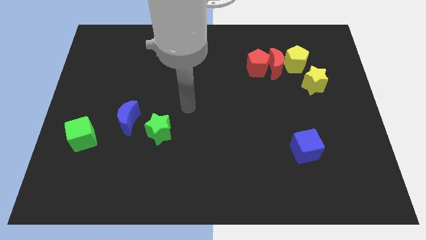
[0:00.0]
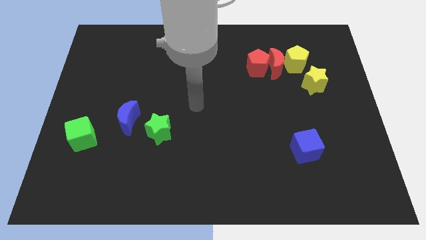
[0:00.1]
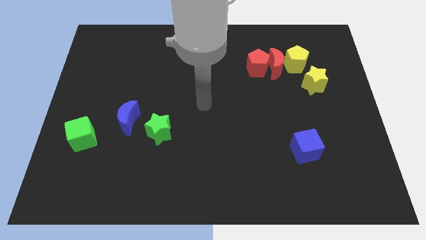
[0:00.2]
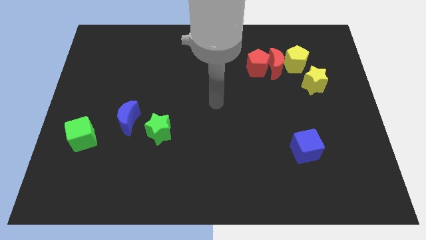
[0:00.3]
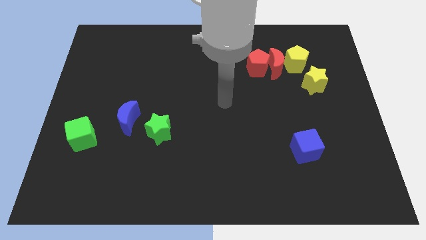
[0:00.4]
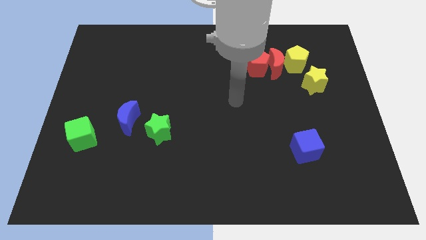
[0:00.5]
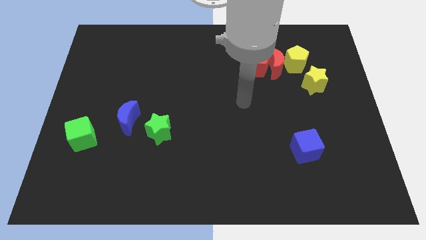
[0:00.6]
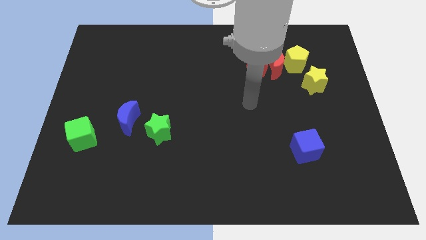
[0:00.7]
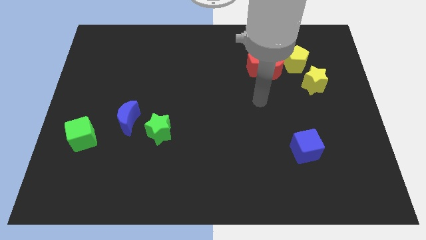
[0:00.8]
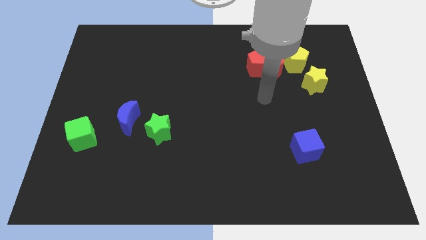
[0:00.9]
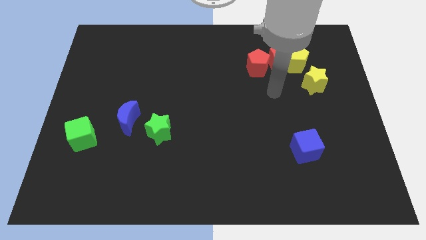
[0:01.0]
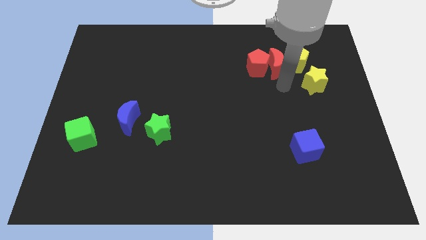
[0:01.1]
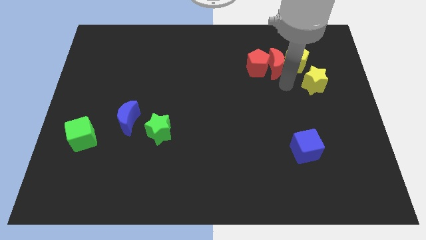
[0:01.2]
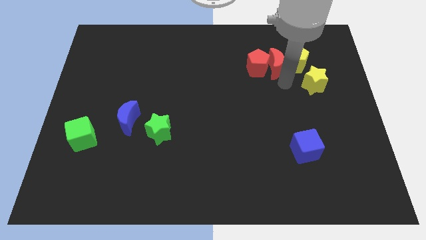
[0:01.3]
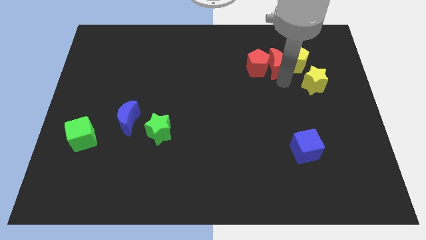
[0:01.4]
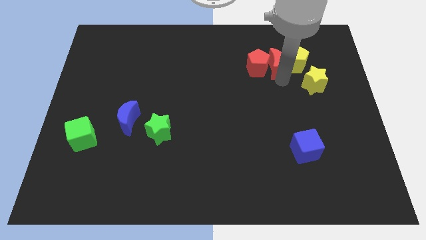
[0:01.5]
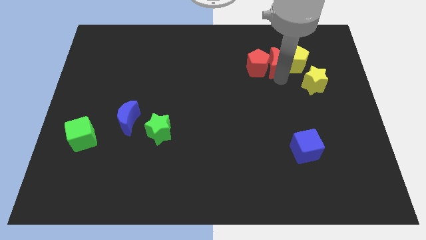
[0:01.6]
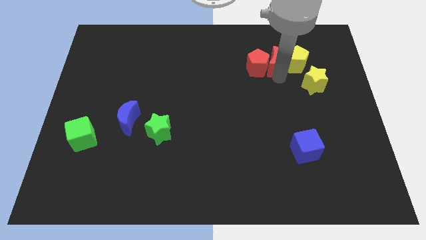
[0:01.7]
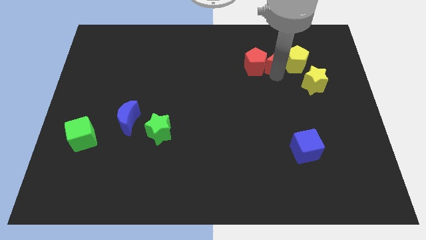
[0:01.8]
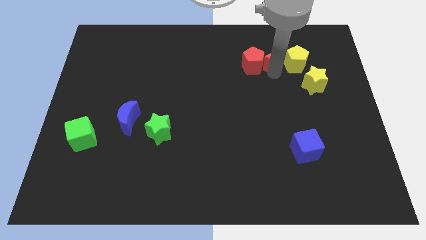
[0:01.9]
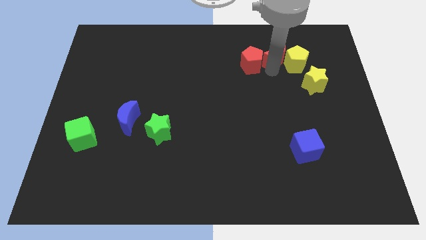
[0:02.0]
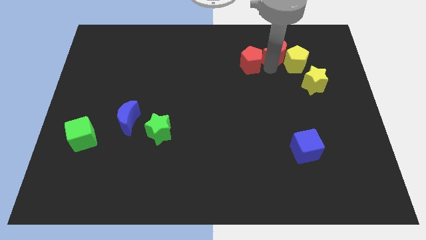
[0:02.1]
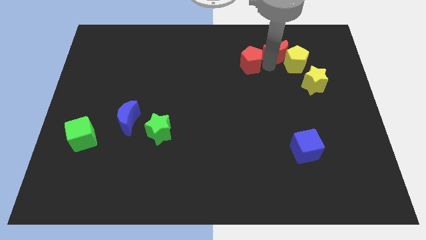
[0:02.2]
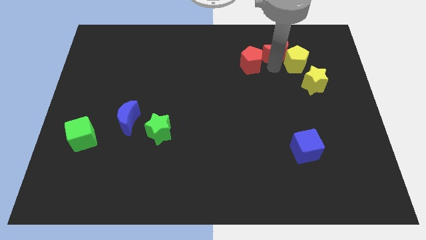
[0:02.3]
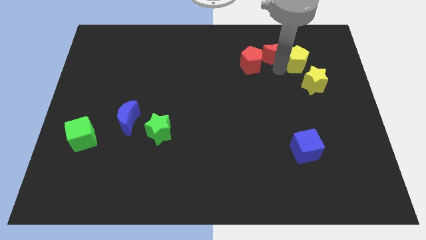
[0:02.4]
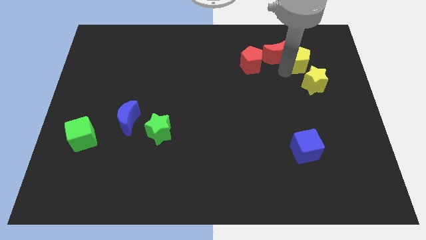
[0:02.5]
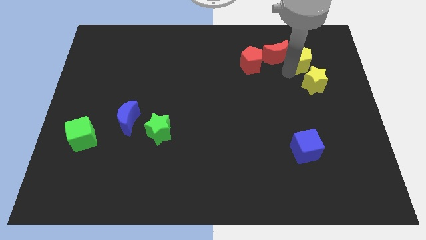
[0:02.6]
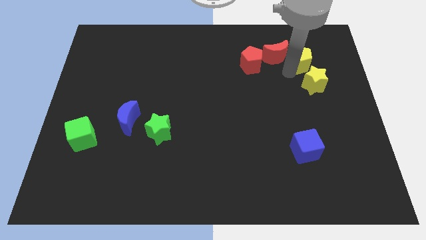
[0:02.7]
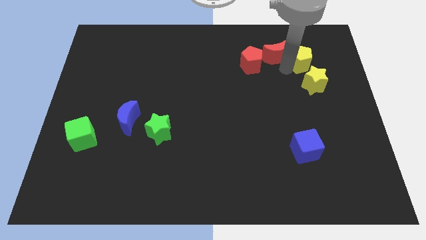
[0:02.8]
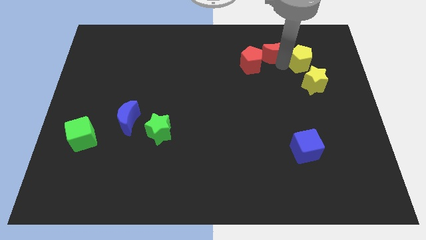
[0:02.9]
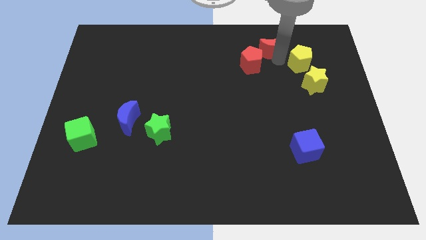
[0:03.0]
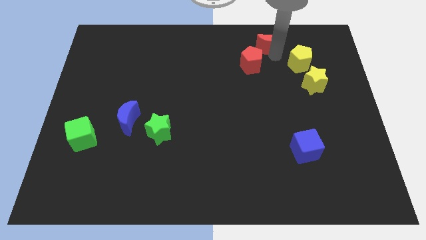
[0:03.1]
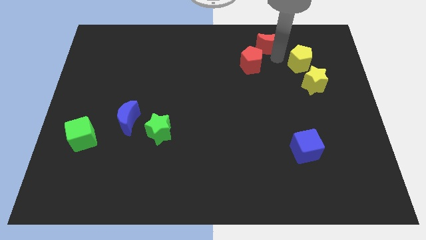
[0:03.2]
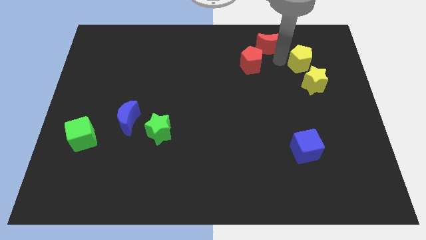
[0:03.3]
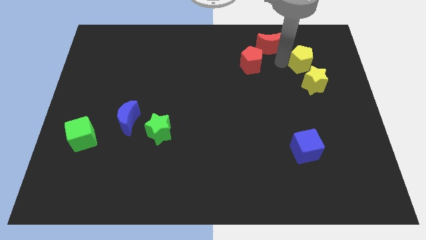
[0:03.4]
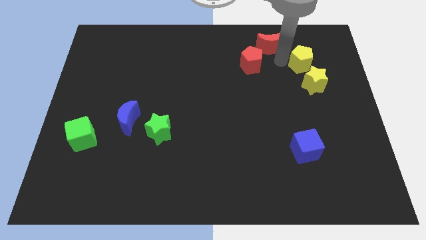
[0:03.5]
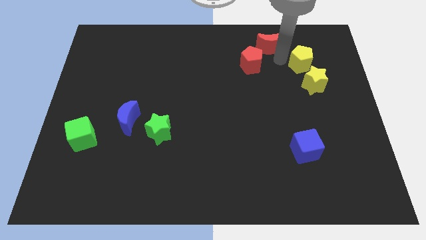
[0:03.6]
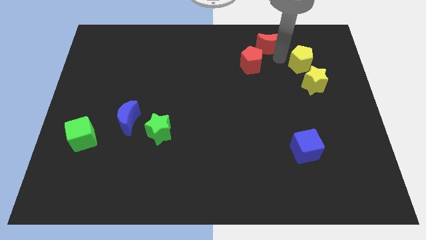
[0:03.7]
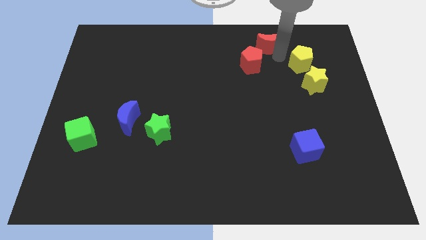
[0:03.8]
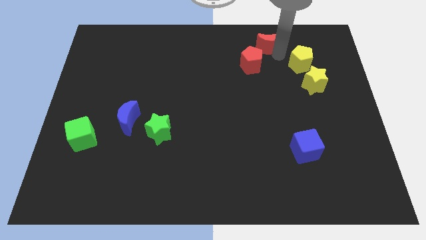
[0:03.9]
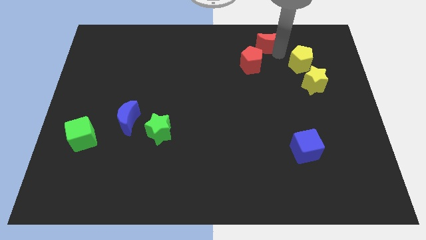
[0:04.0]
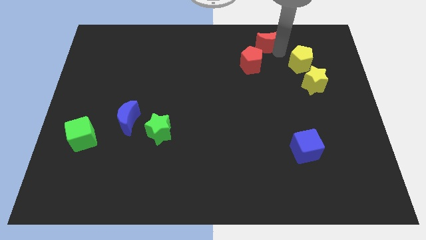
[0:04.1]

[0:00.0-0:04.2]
separate the red moon from the red pentagon, yellow pentagon, and yellow star

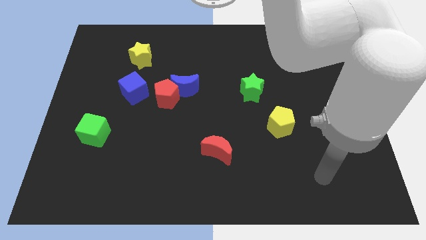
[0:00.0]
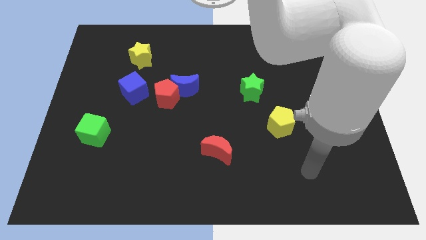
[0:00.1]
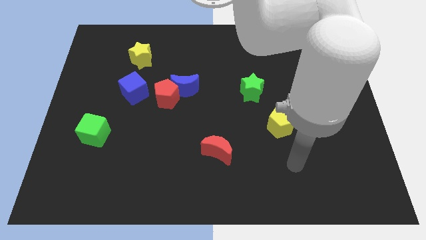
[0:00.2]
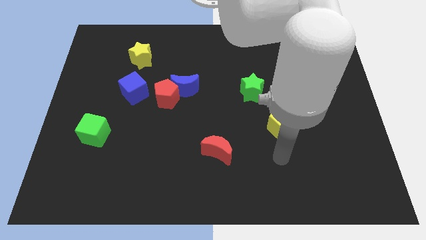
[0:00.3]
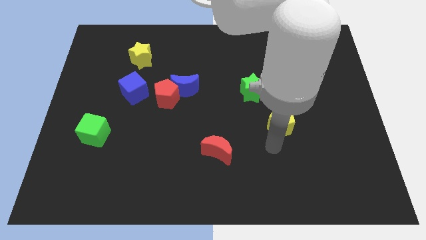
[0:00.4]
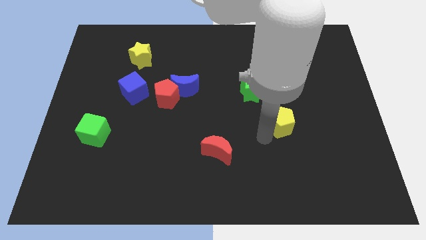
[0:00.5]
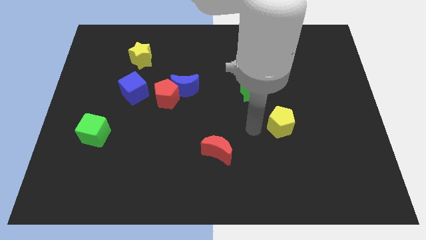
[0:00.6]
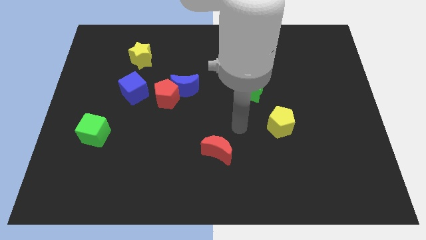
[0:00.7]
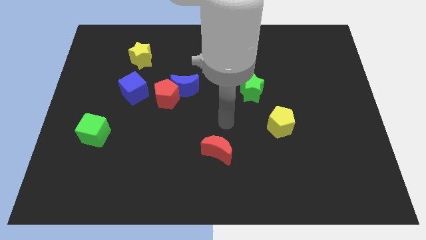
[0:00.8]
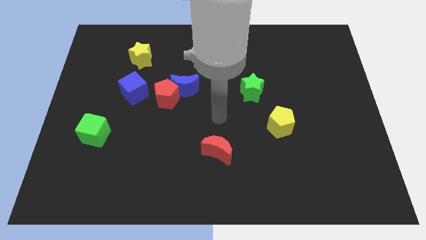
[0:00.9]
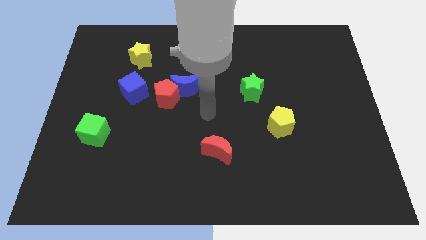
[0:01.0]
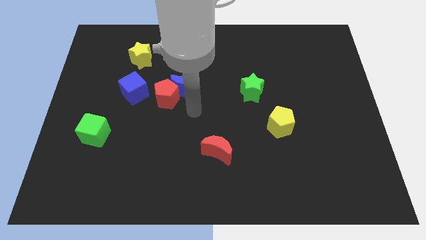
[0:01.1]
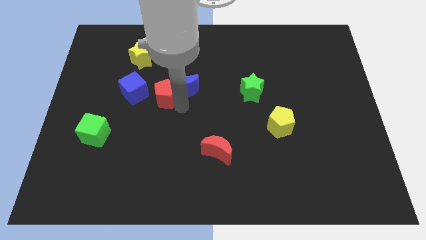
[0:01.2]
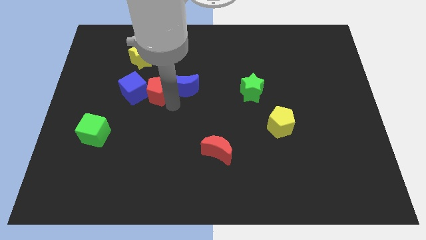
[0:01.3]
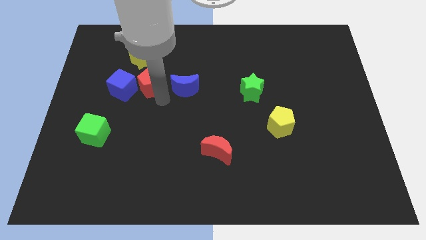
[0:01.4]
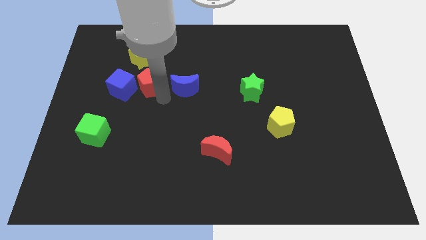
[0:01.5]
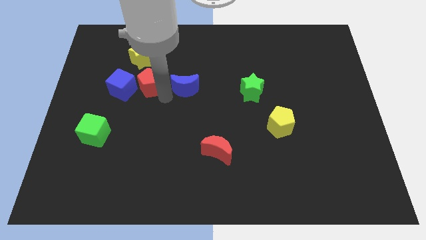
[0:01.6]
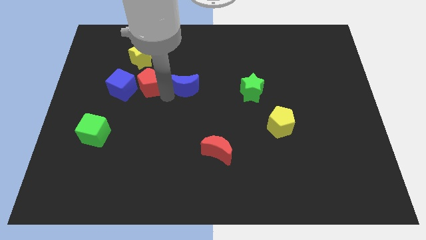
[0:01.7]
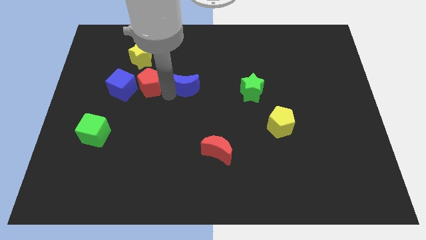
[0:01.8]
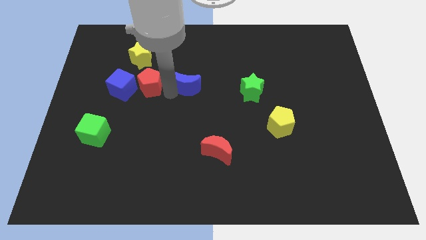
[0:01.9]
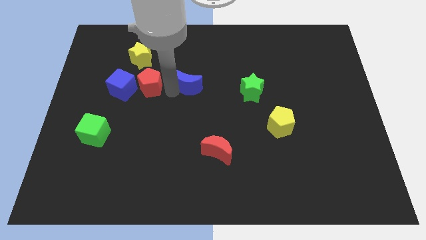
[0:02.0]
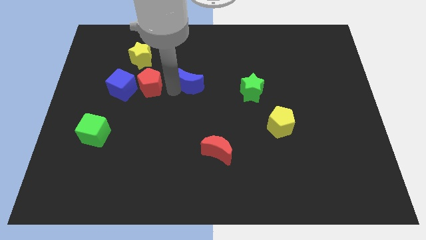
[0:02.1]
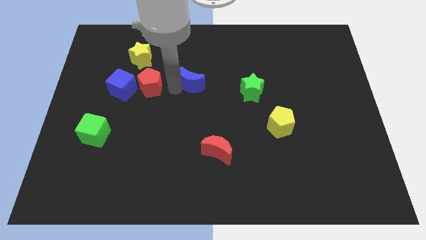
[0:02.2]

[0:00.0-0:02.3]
move the blue moon away from the red pentagon

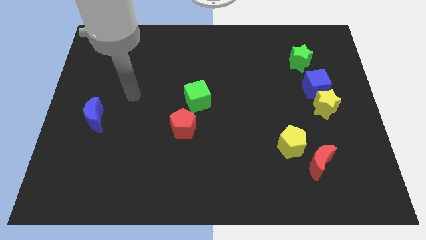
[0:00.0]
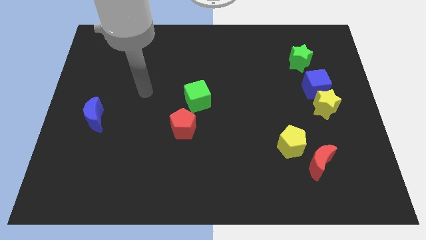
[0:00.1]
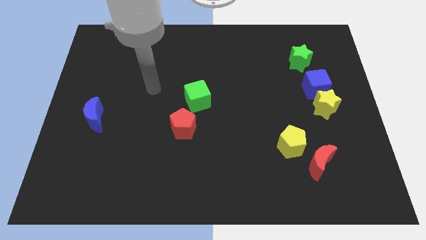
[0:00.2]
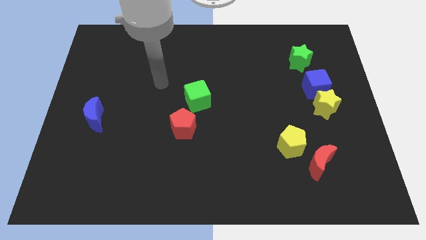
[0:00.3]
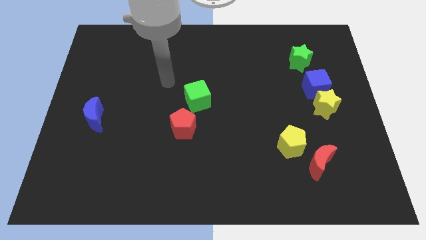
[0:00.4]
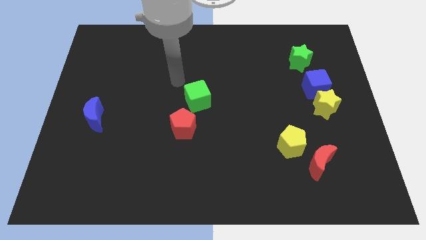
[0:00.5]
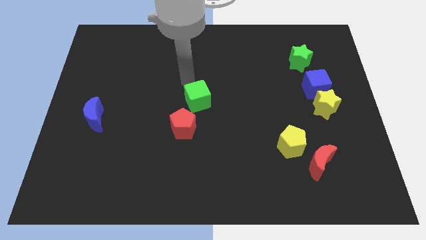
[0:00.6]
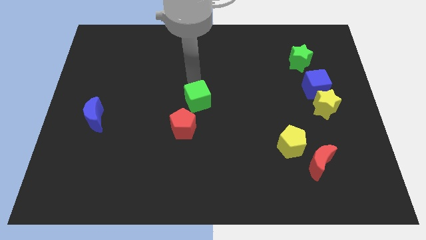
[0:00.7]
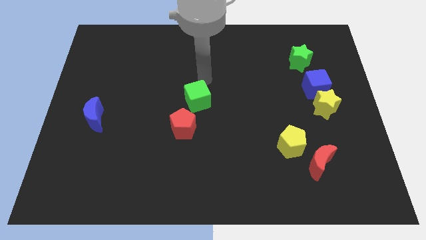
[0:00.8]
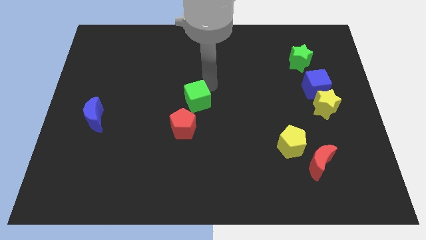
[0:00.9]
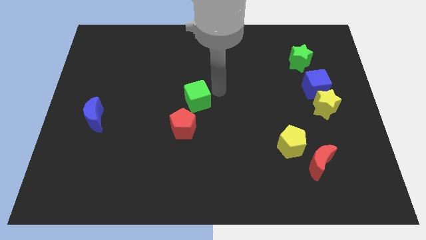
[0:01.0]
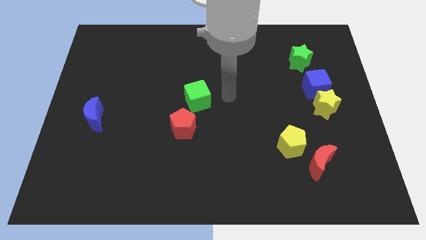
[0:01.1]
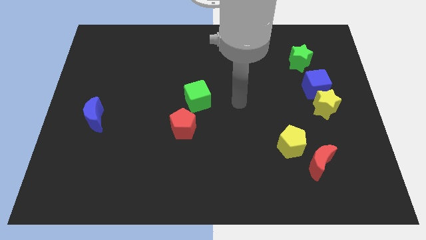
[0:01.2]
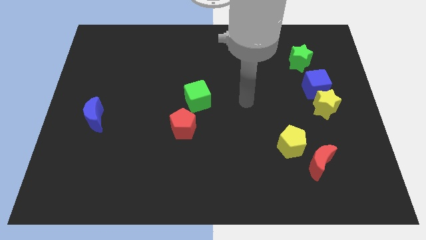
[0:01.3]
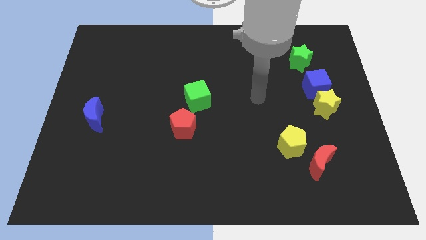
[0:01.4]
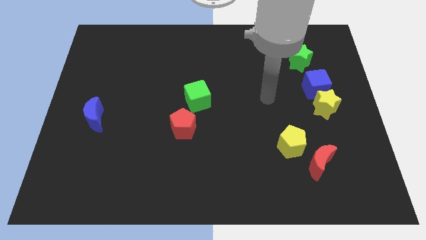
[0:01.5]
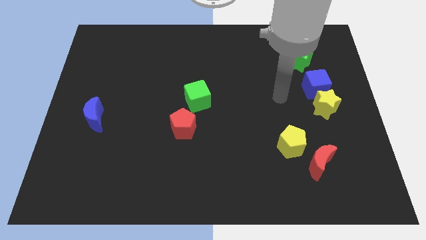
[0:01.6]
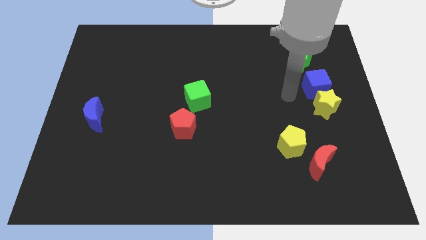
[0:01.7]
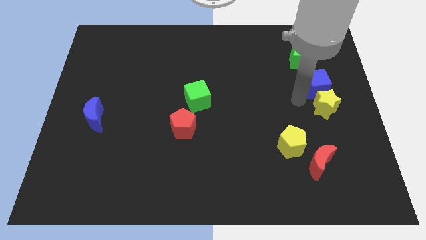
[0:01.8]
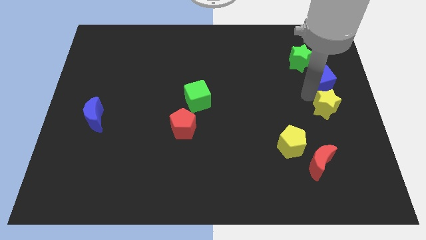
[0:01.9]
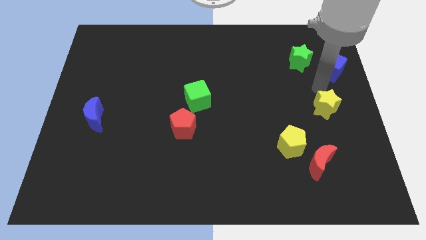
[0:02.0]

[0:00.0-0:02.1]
move the yellow star away from the blue cube

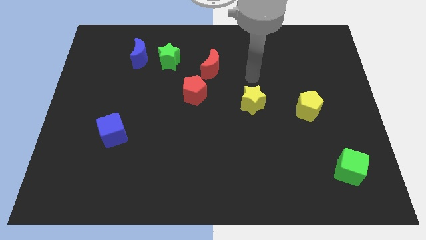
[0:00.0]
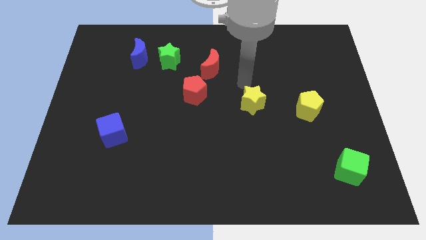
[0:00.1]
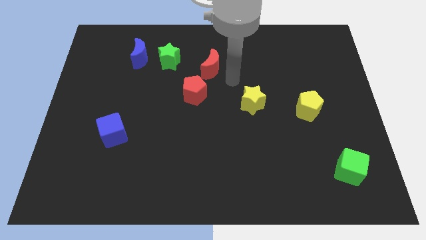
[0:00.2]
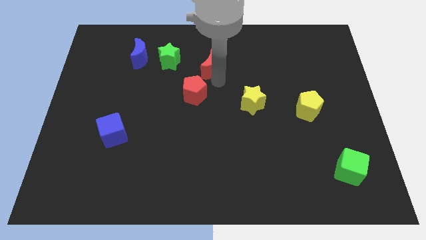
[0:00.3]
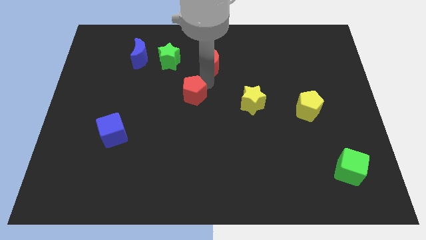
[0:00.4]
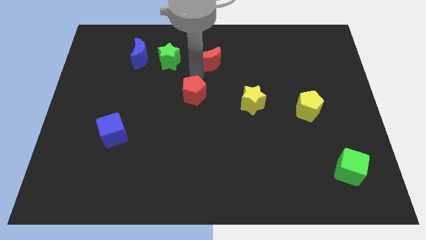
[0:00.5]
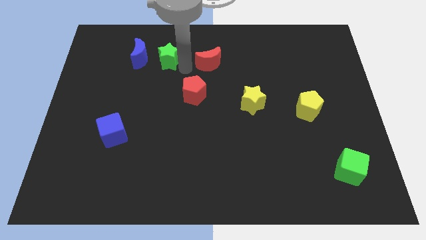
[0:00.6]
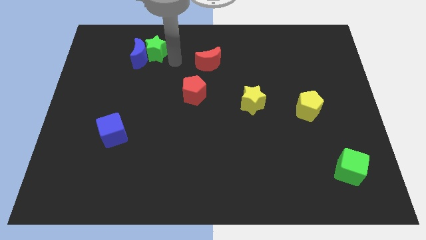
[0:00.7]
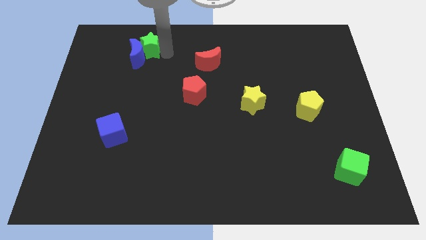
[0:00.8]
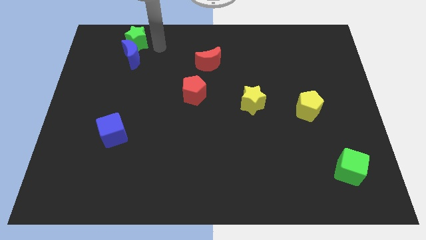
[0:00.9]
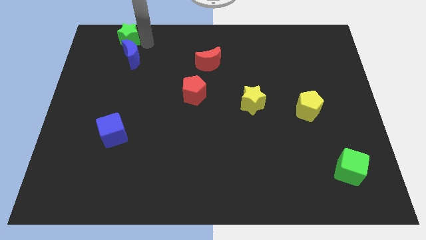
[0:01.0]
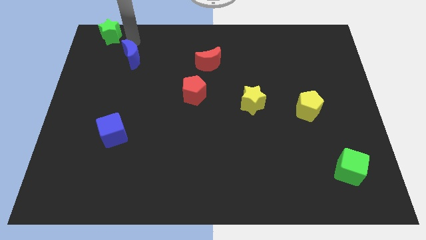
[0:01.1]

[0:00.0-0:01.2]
pull the blue moon apart from the green star
